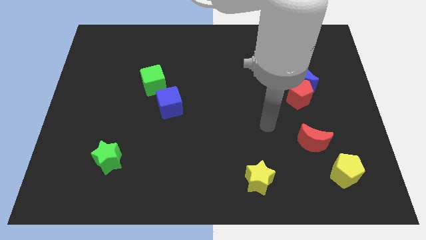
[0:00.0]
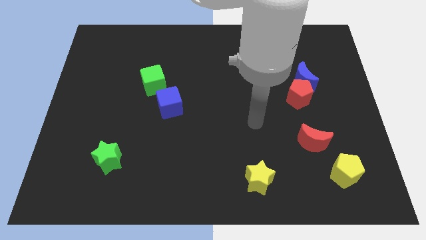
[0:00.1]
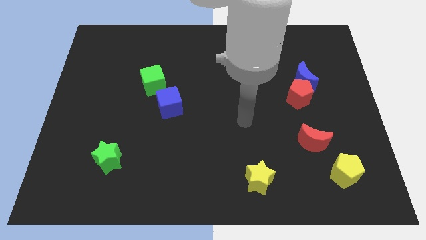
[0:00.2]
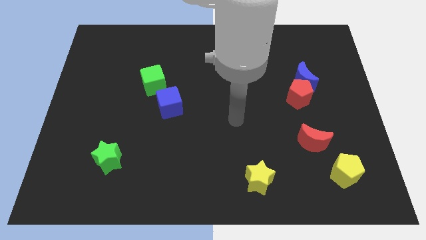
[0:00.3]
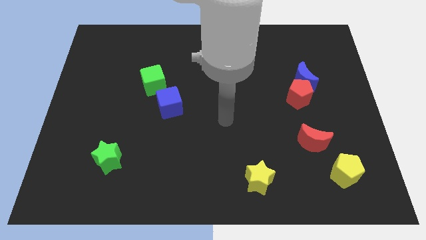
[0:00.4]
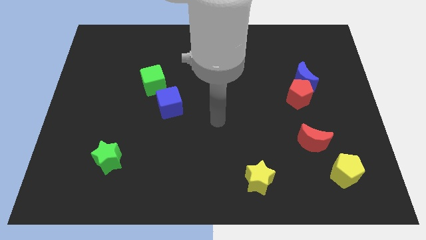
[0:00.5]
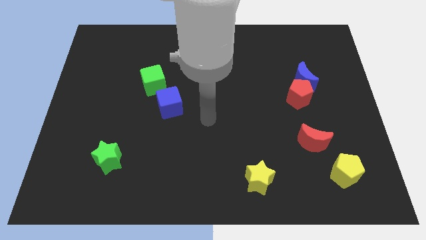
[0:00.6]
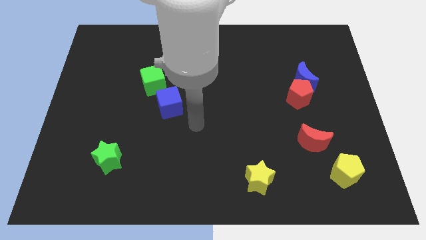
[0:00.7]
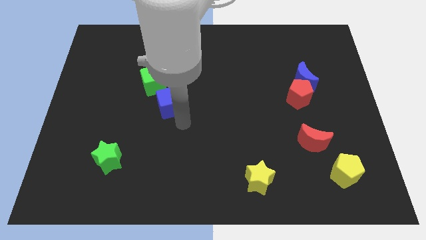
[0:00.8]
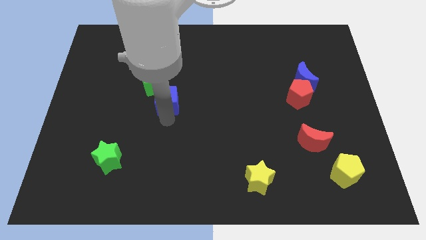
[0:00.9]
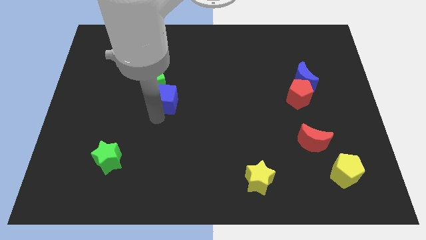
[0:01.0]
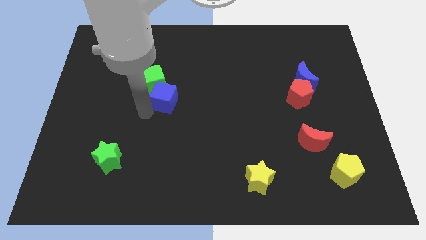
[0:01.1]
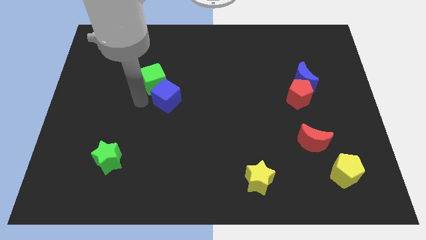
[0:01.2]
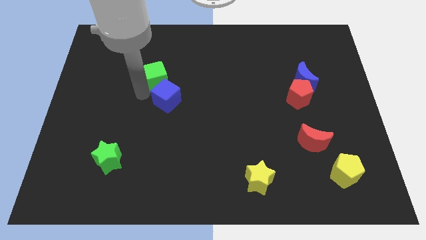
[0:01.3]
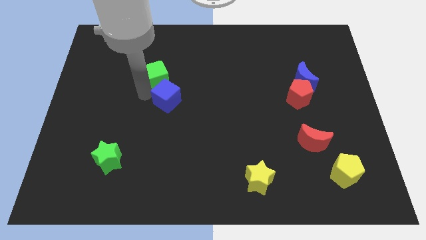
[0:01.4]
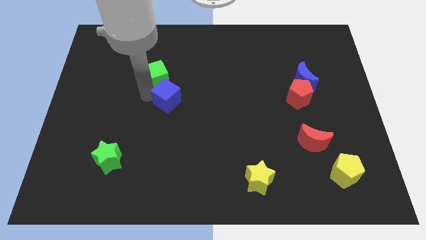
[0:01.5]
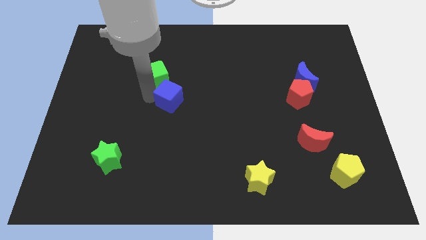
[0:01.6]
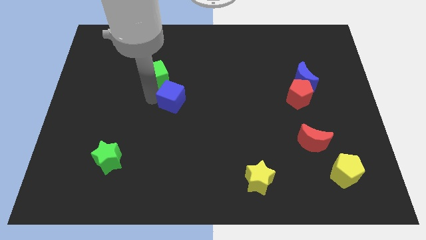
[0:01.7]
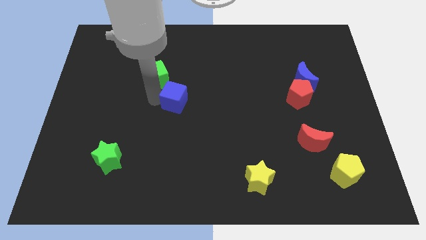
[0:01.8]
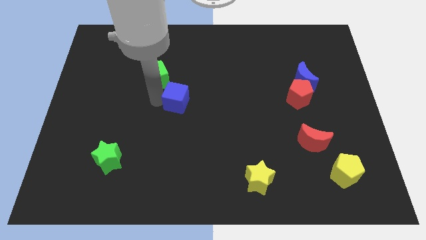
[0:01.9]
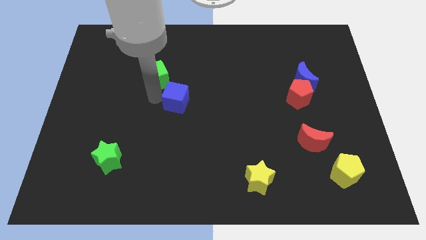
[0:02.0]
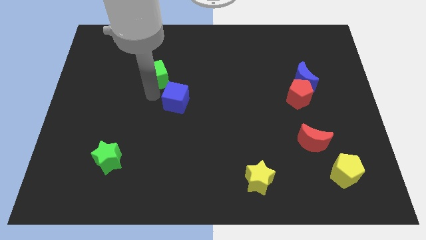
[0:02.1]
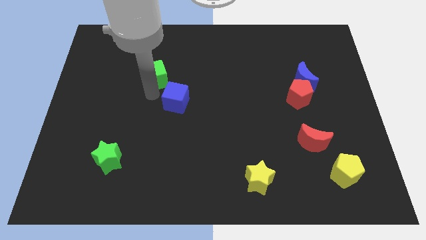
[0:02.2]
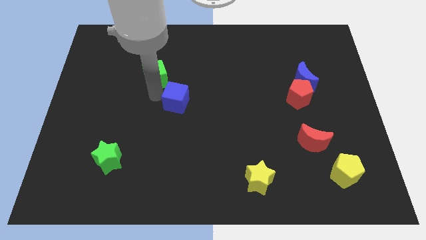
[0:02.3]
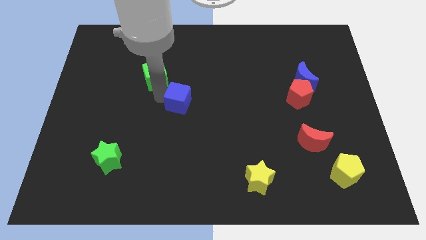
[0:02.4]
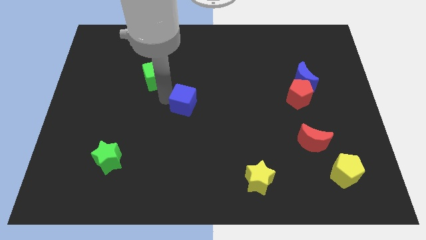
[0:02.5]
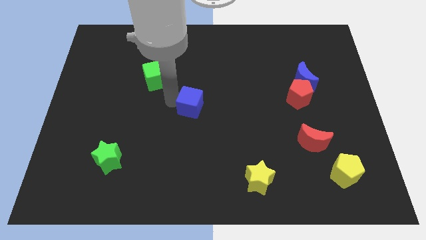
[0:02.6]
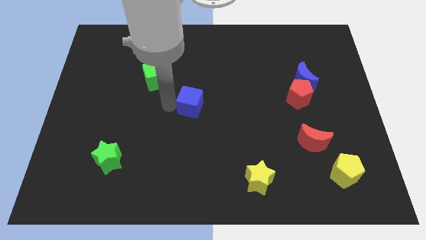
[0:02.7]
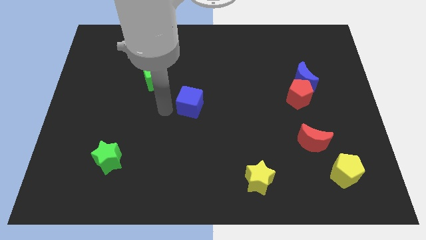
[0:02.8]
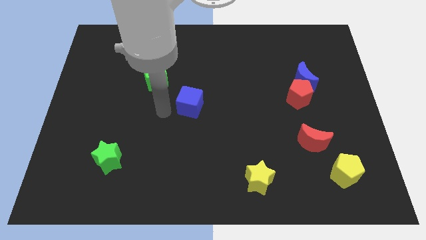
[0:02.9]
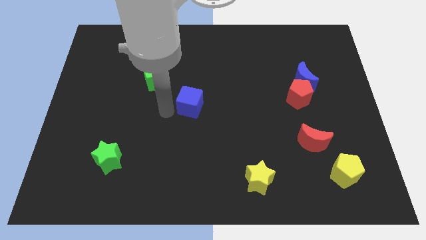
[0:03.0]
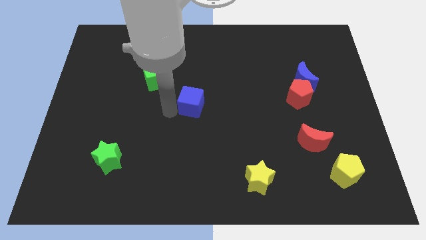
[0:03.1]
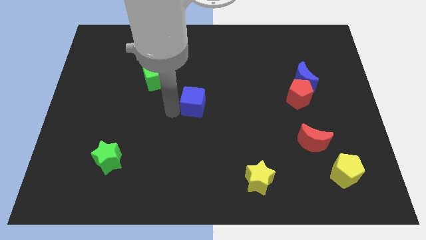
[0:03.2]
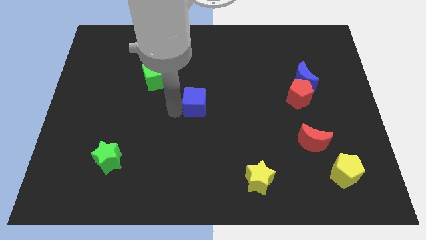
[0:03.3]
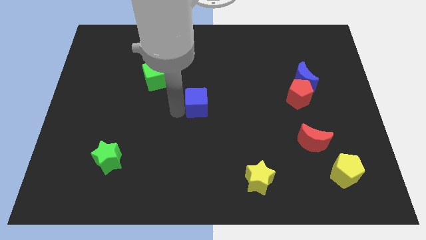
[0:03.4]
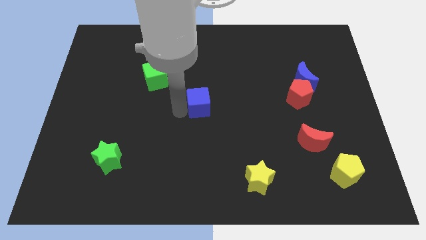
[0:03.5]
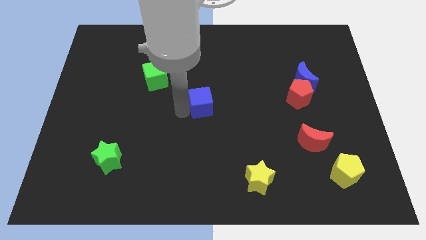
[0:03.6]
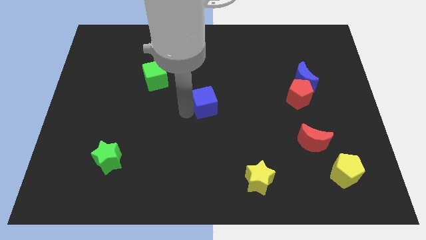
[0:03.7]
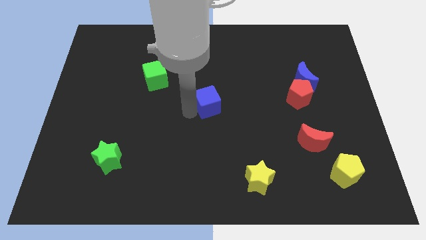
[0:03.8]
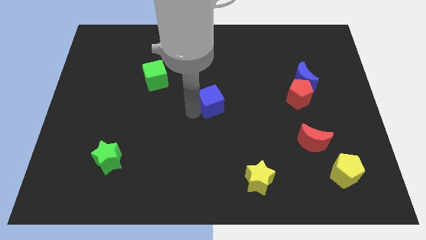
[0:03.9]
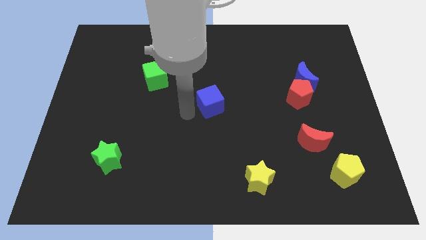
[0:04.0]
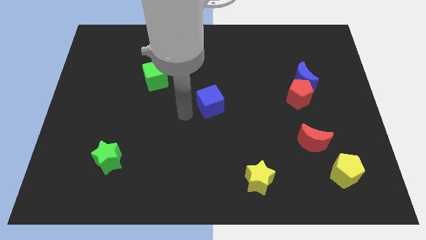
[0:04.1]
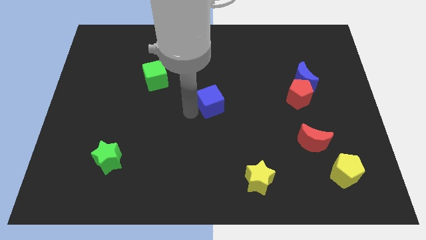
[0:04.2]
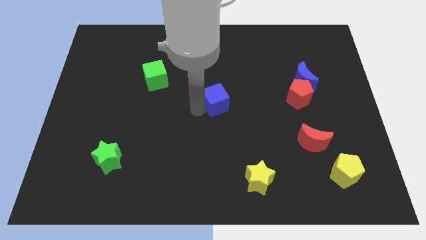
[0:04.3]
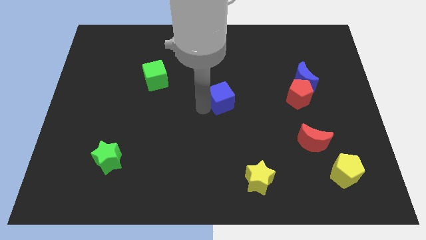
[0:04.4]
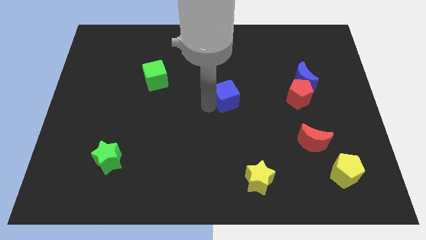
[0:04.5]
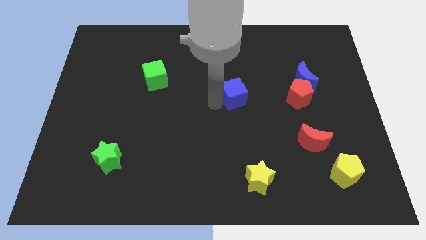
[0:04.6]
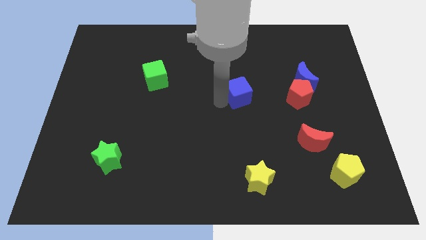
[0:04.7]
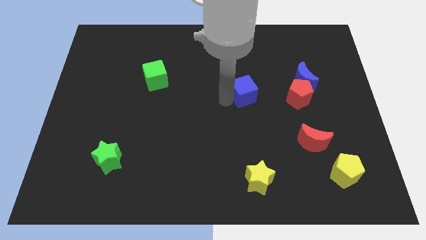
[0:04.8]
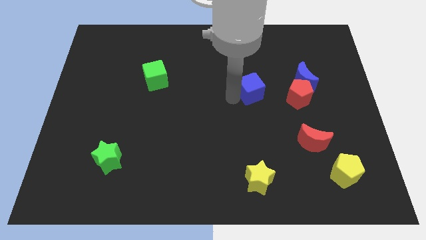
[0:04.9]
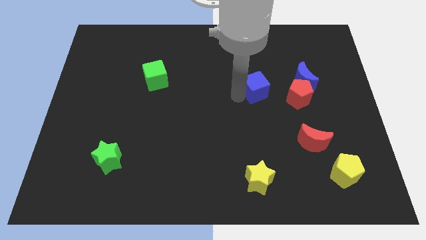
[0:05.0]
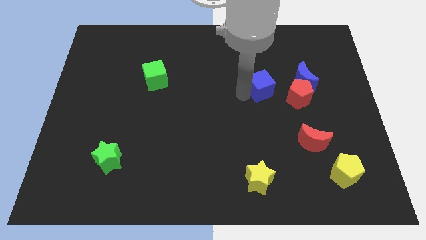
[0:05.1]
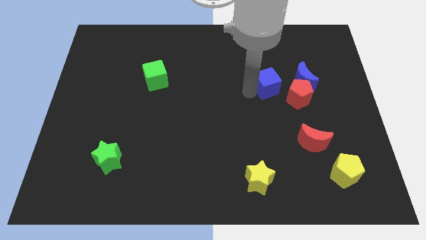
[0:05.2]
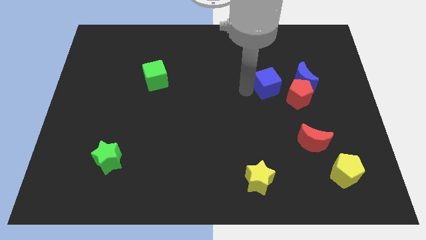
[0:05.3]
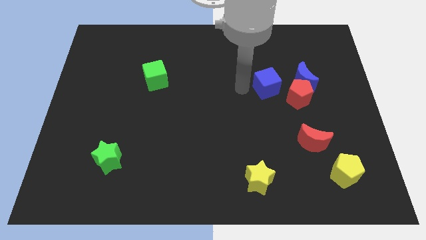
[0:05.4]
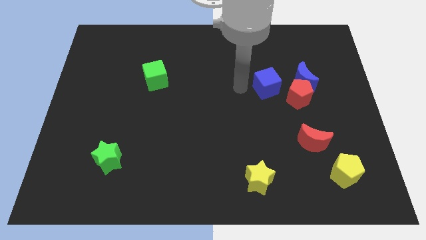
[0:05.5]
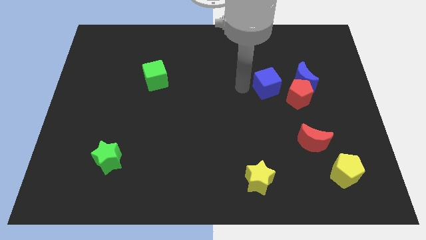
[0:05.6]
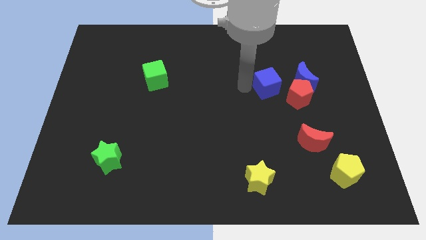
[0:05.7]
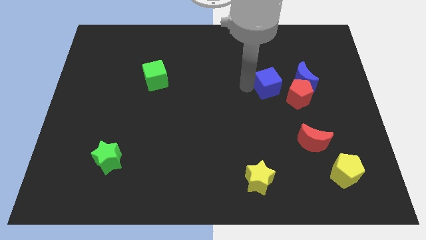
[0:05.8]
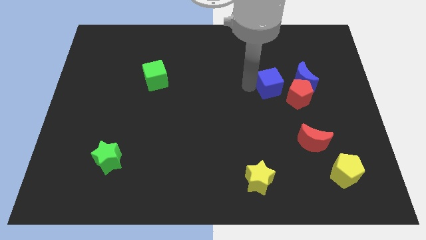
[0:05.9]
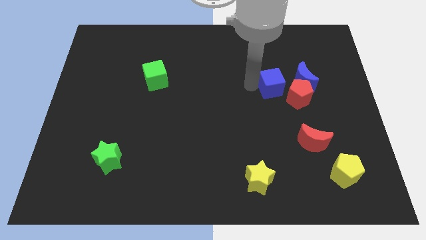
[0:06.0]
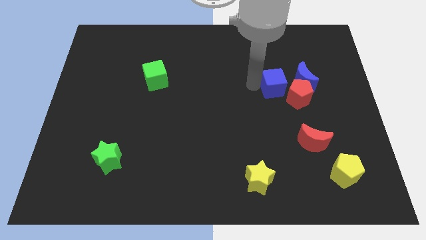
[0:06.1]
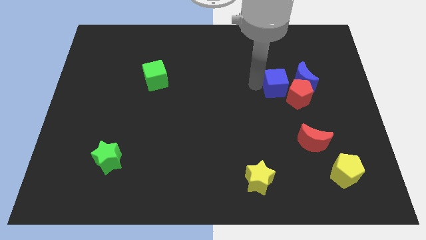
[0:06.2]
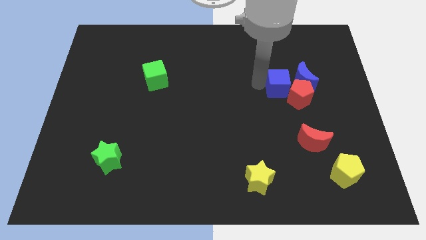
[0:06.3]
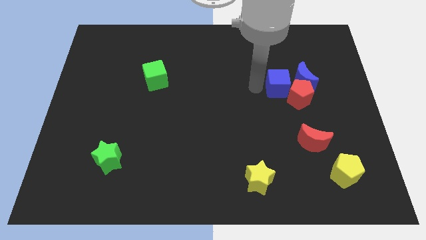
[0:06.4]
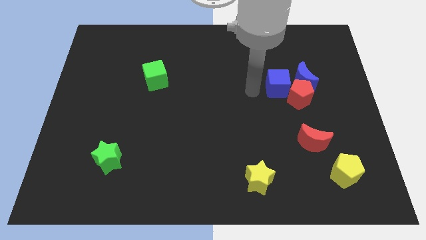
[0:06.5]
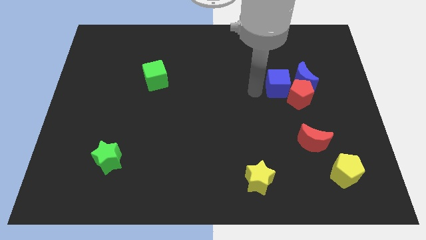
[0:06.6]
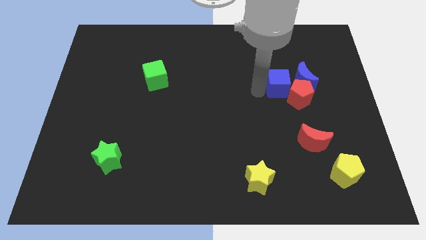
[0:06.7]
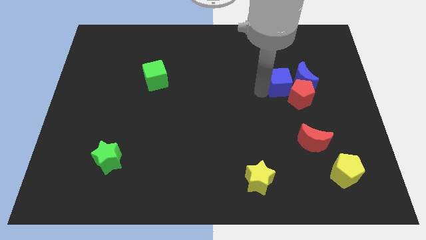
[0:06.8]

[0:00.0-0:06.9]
move the blue cube close to the blue moon

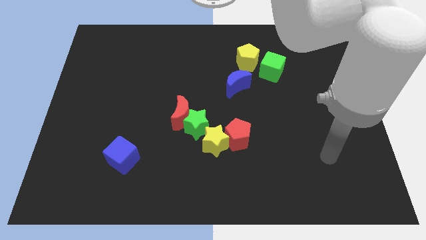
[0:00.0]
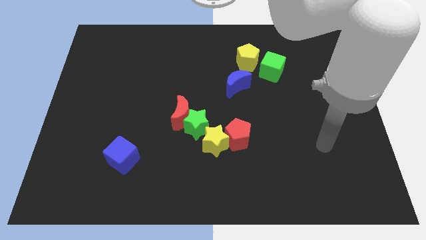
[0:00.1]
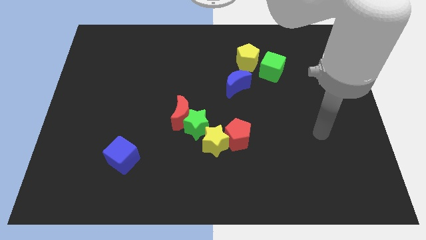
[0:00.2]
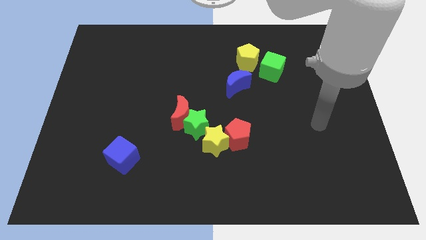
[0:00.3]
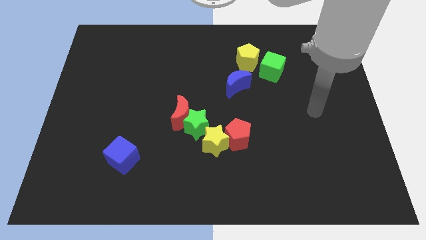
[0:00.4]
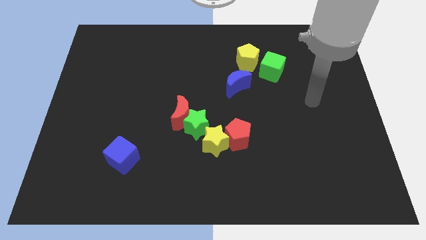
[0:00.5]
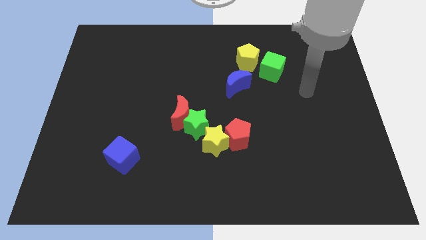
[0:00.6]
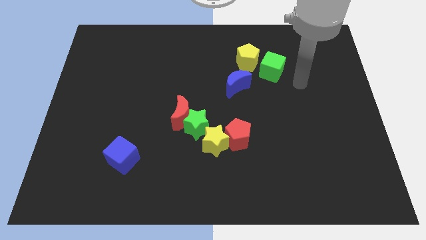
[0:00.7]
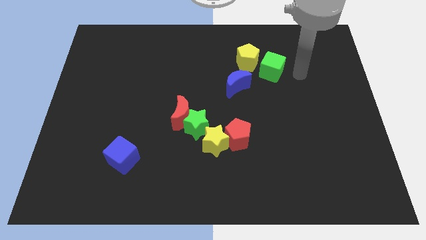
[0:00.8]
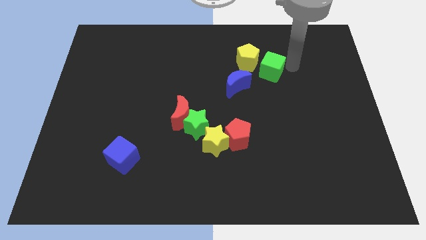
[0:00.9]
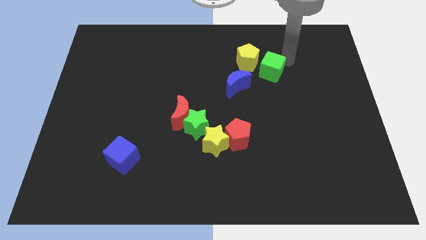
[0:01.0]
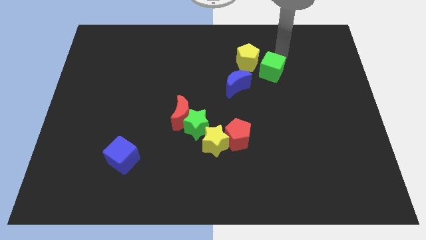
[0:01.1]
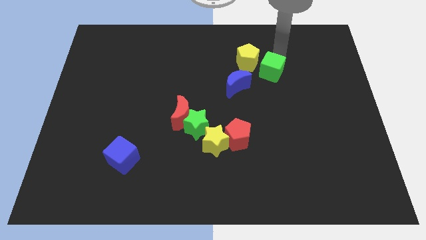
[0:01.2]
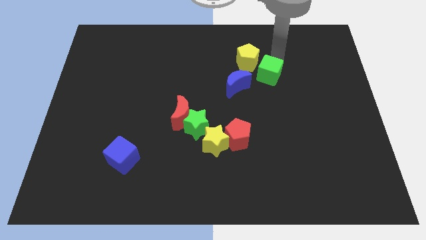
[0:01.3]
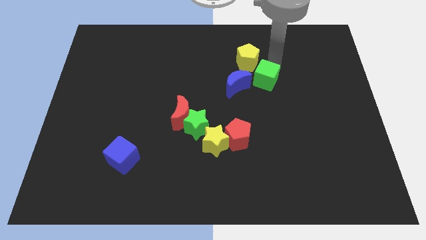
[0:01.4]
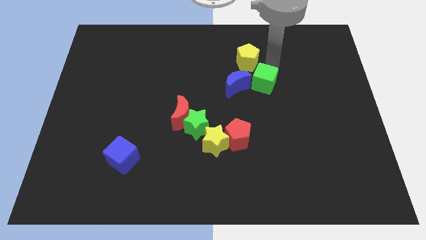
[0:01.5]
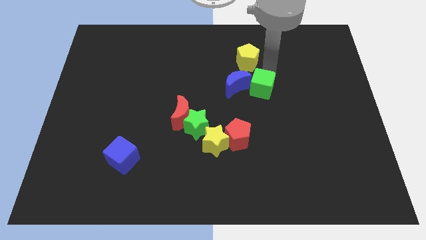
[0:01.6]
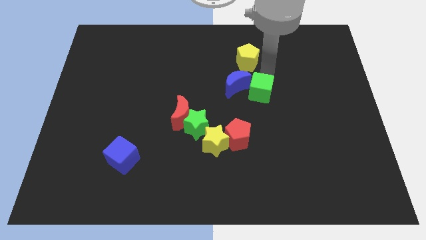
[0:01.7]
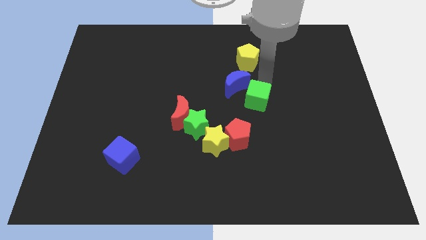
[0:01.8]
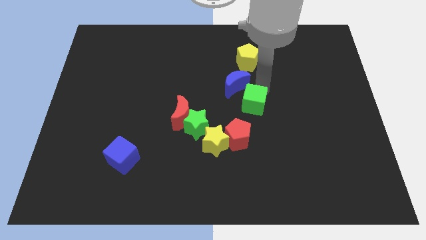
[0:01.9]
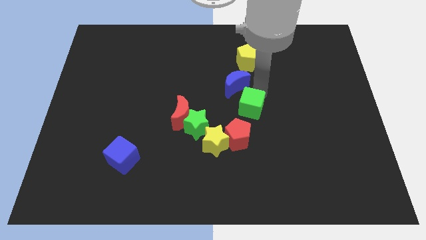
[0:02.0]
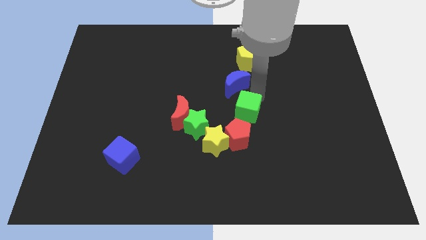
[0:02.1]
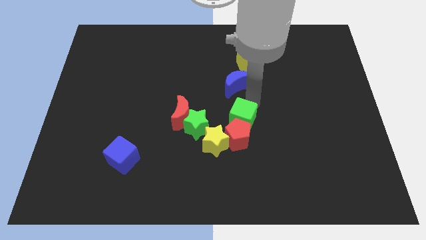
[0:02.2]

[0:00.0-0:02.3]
move the green cube to the red pentagon
